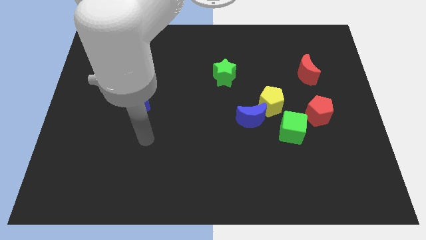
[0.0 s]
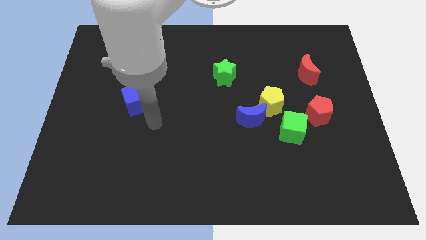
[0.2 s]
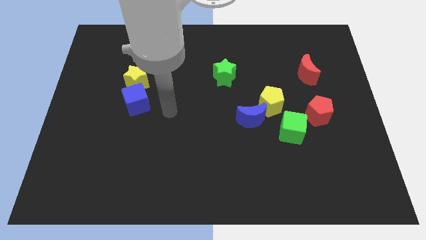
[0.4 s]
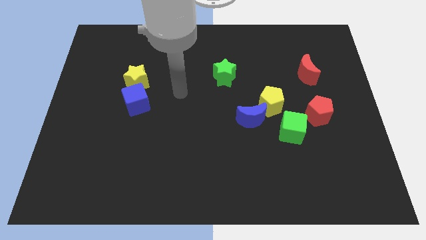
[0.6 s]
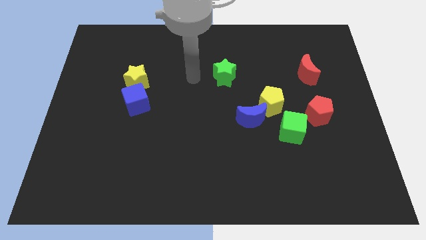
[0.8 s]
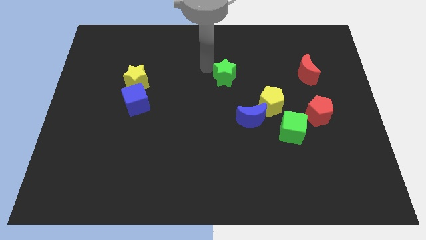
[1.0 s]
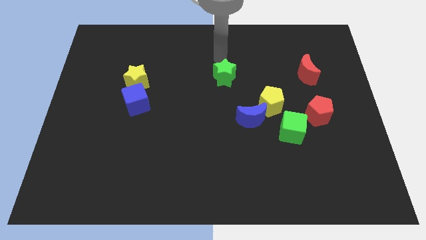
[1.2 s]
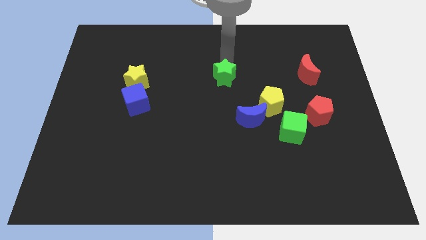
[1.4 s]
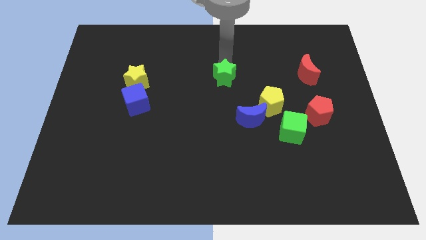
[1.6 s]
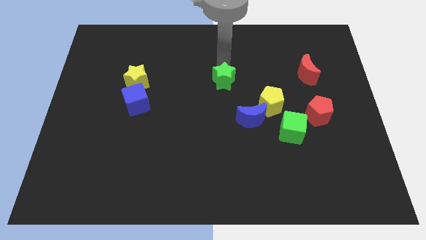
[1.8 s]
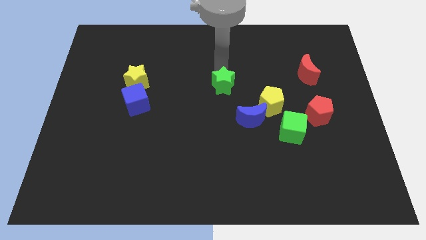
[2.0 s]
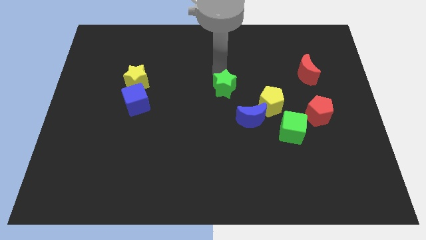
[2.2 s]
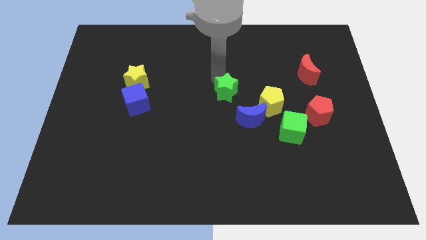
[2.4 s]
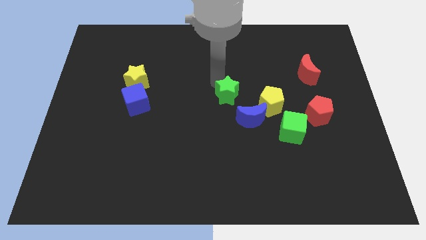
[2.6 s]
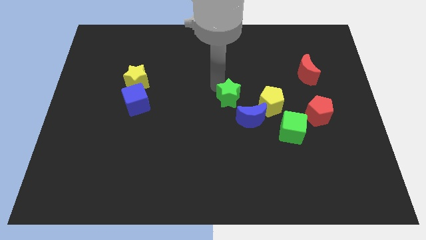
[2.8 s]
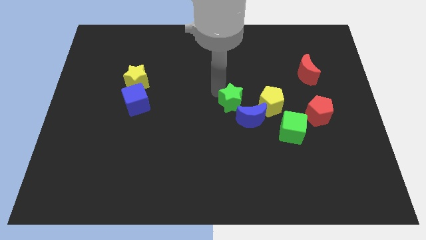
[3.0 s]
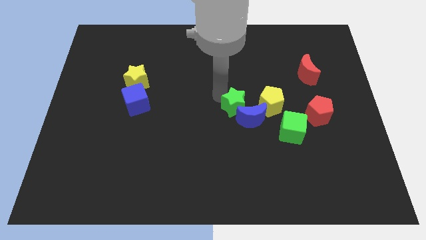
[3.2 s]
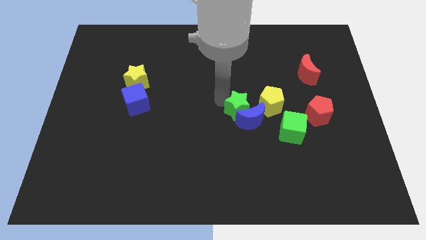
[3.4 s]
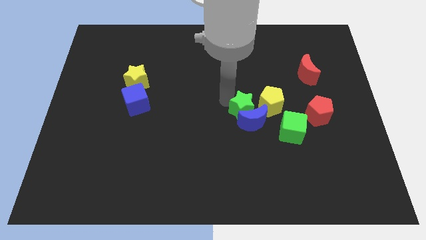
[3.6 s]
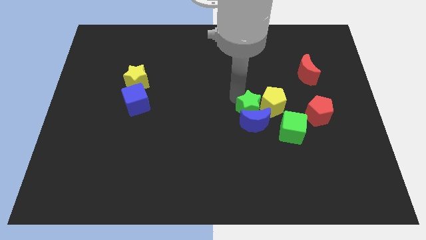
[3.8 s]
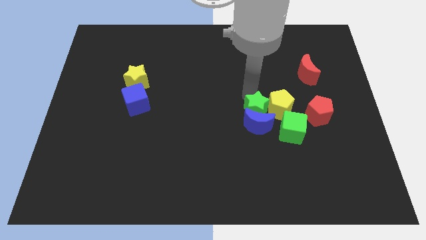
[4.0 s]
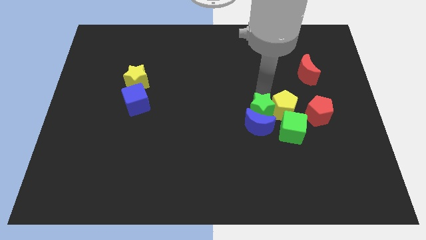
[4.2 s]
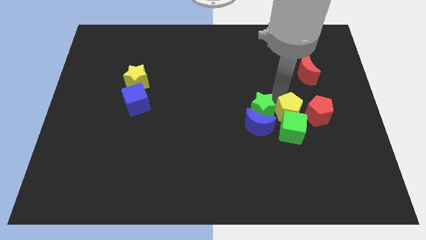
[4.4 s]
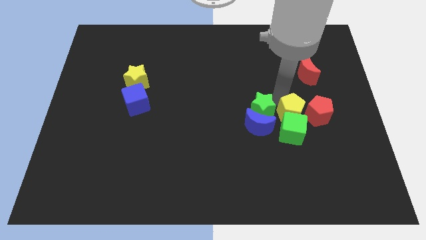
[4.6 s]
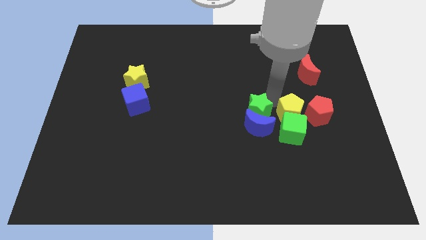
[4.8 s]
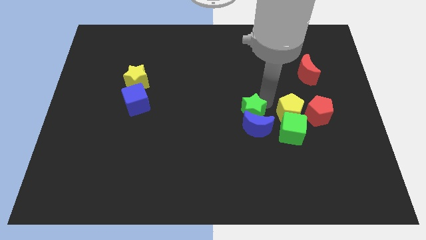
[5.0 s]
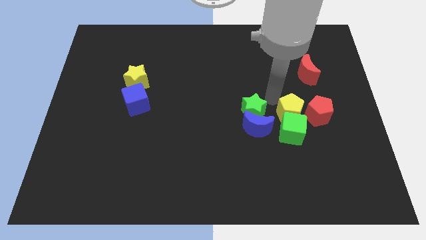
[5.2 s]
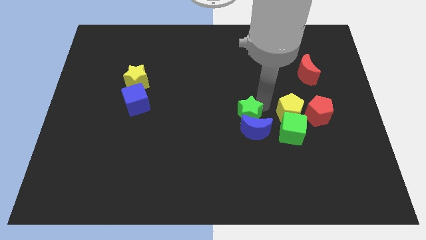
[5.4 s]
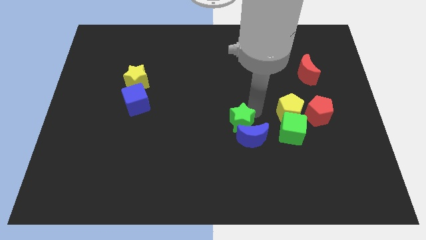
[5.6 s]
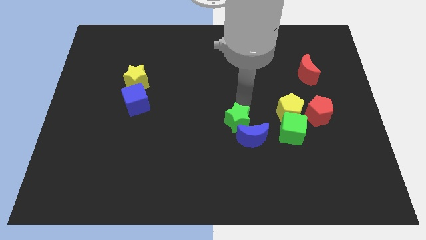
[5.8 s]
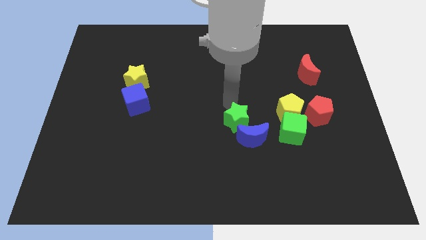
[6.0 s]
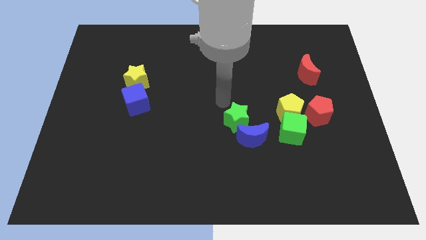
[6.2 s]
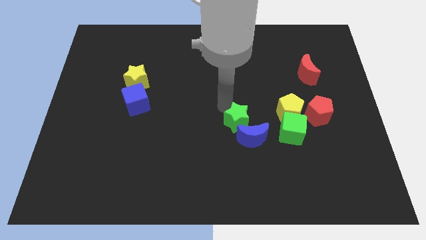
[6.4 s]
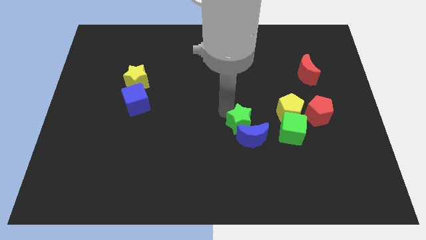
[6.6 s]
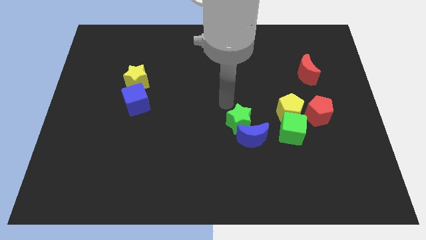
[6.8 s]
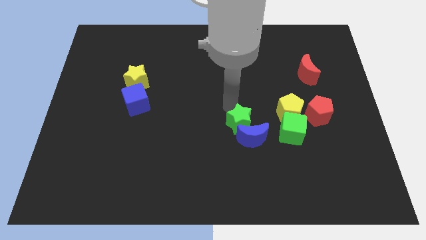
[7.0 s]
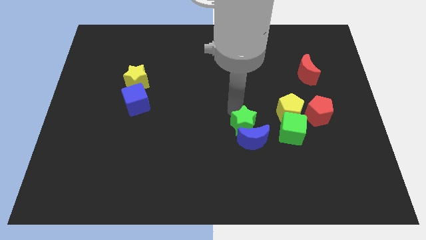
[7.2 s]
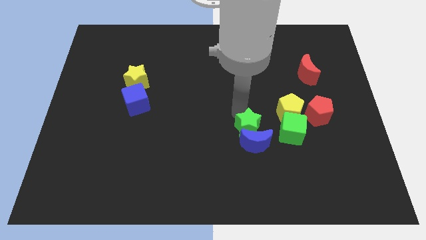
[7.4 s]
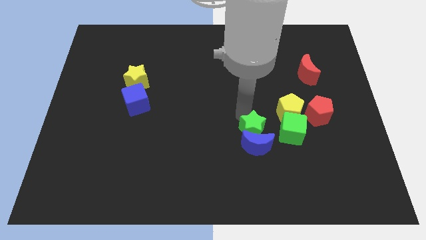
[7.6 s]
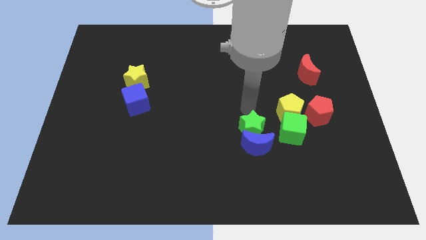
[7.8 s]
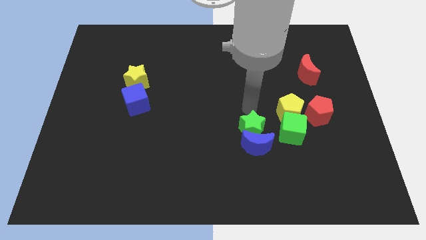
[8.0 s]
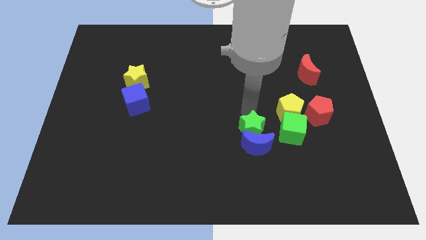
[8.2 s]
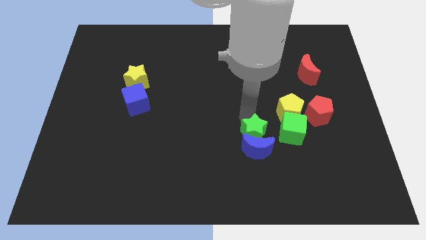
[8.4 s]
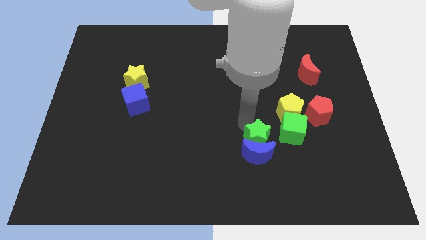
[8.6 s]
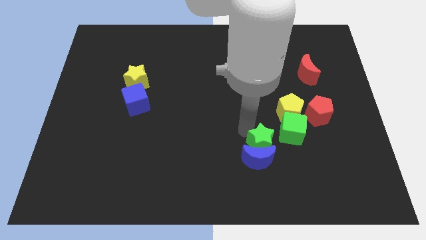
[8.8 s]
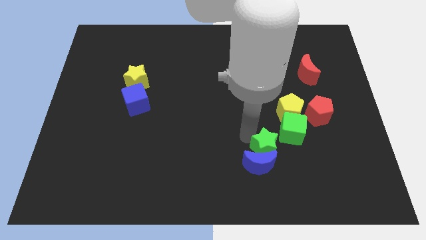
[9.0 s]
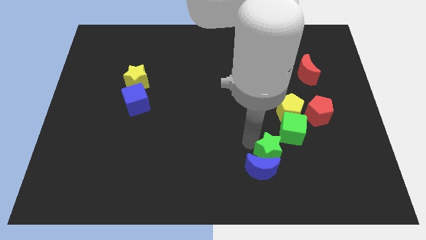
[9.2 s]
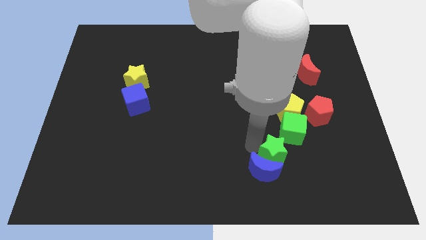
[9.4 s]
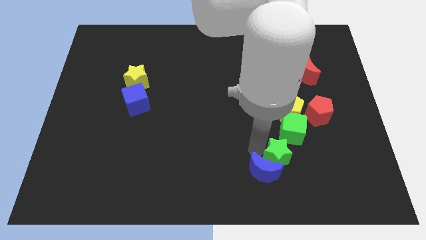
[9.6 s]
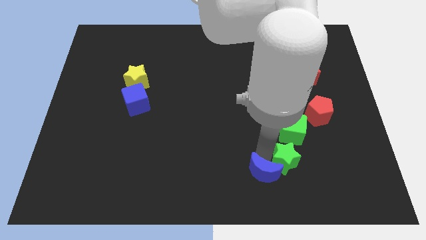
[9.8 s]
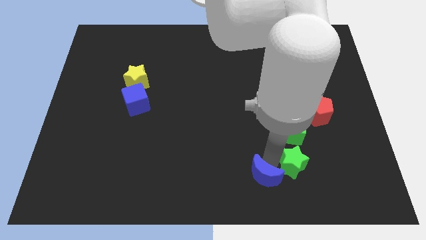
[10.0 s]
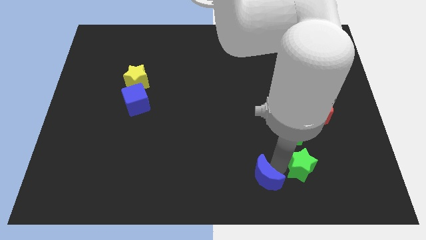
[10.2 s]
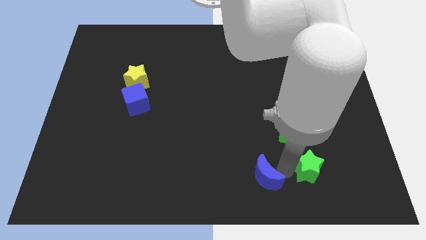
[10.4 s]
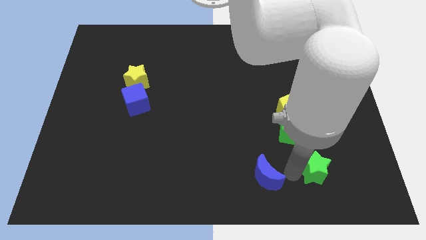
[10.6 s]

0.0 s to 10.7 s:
slide the green star to the bottom of the red pentagon

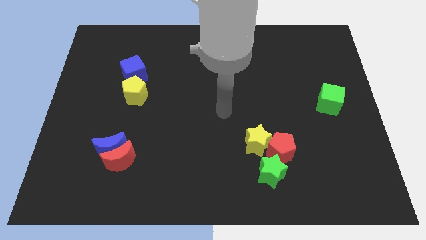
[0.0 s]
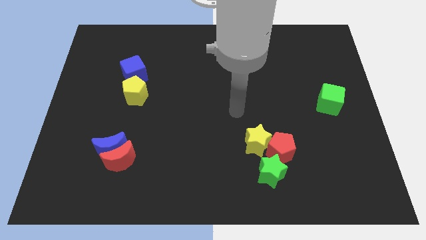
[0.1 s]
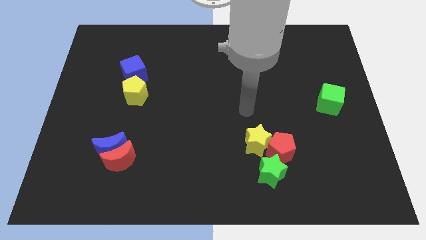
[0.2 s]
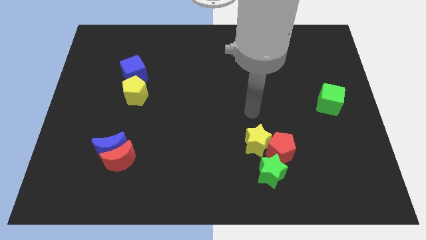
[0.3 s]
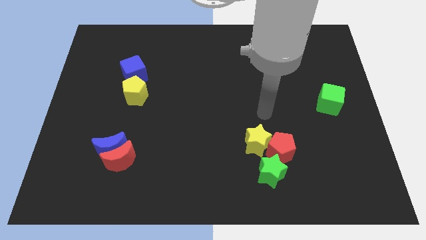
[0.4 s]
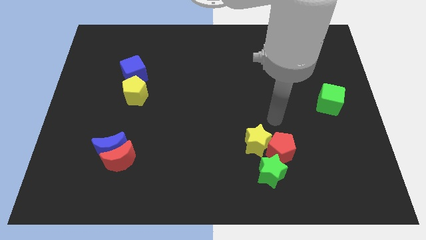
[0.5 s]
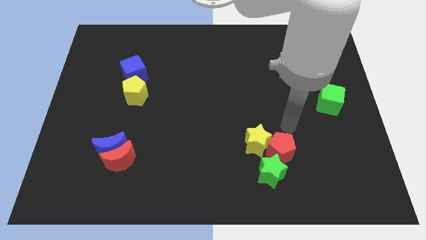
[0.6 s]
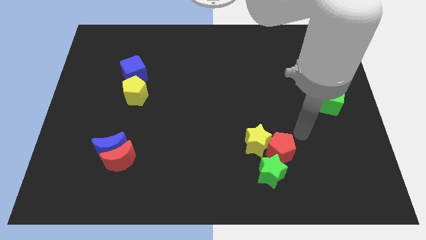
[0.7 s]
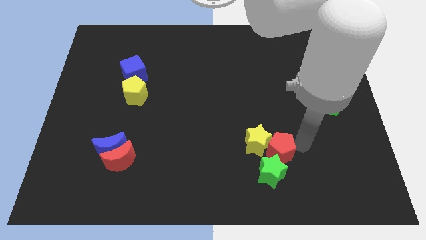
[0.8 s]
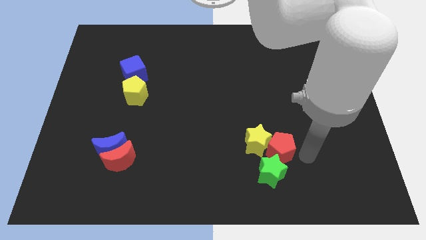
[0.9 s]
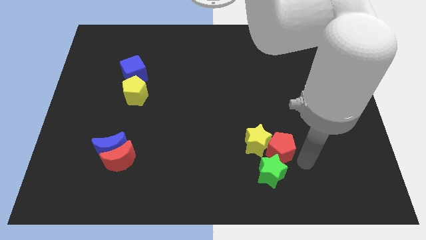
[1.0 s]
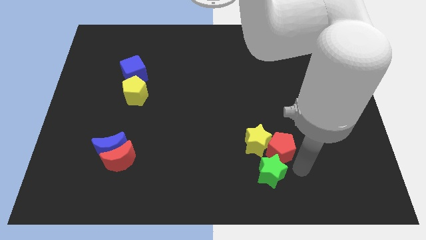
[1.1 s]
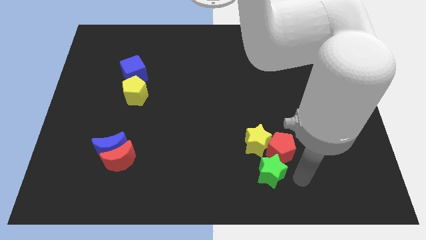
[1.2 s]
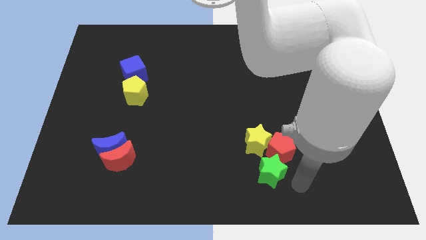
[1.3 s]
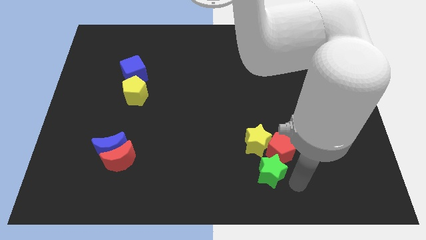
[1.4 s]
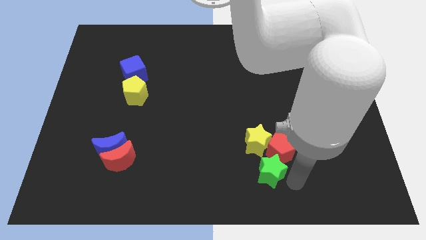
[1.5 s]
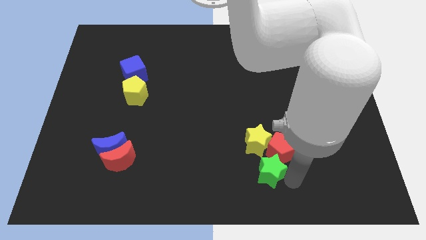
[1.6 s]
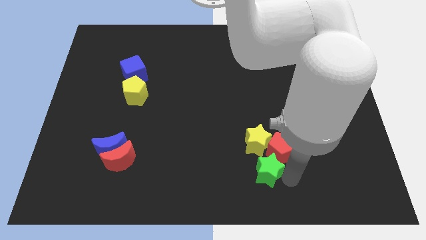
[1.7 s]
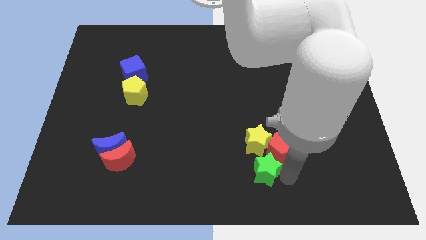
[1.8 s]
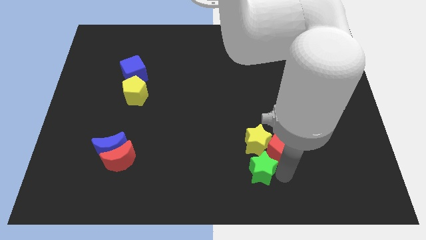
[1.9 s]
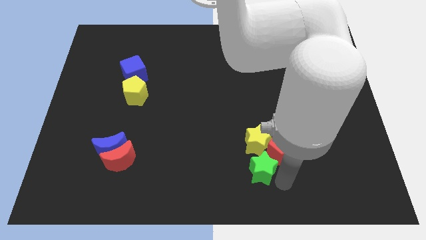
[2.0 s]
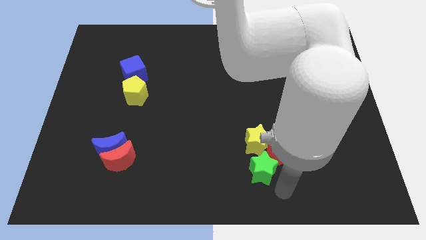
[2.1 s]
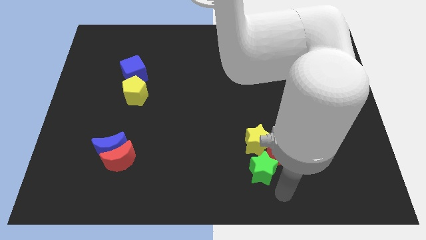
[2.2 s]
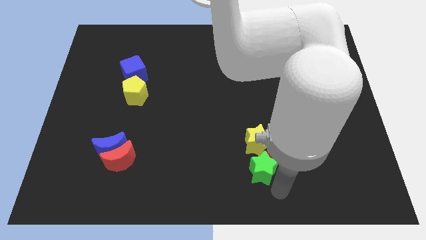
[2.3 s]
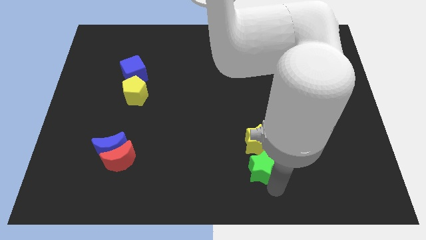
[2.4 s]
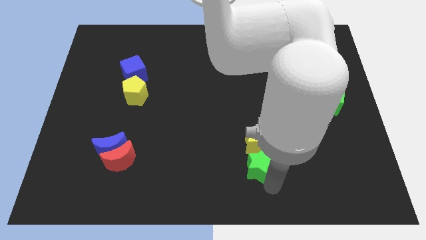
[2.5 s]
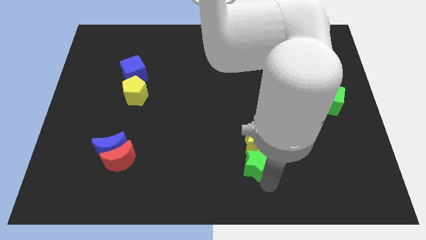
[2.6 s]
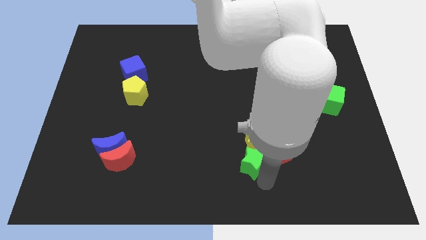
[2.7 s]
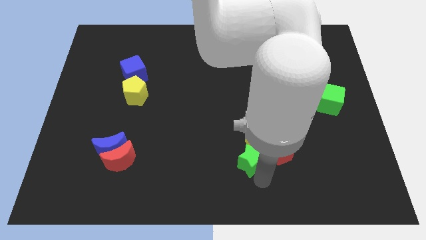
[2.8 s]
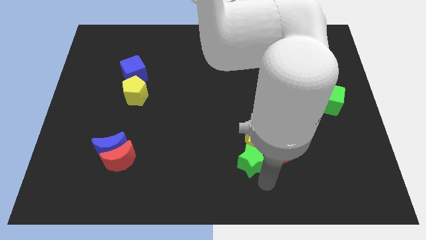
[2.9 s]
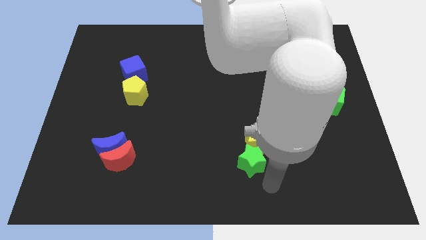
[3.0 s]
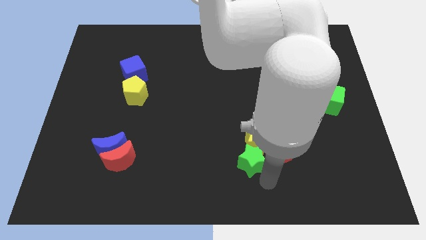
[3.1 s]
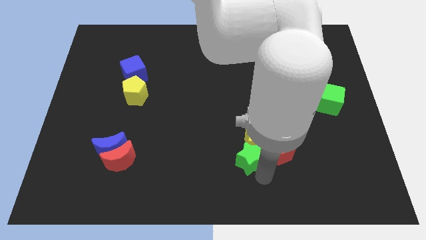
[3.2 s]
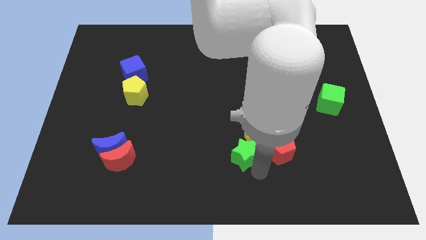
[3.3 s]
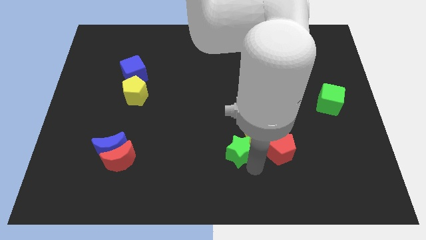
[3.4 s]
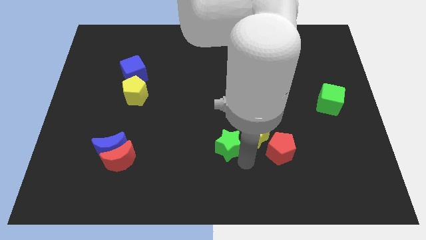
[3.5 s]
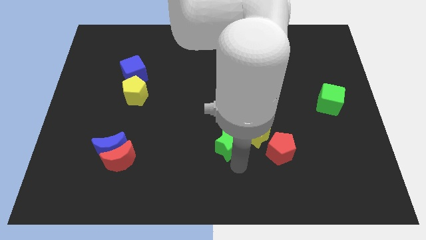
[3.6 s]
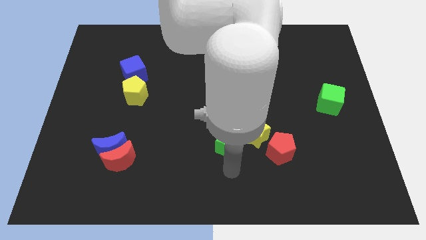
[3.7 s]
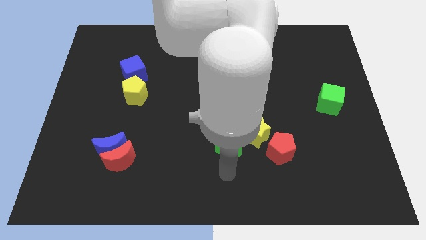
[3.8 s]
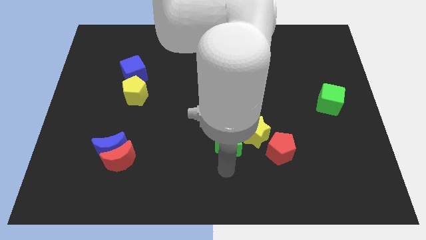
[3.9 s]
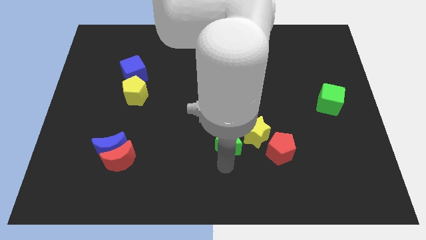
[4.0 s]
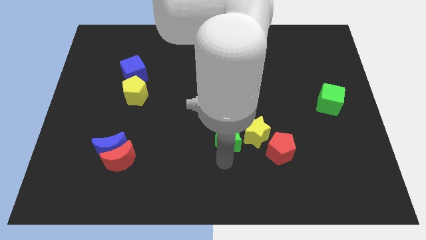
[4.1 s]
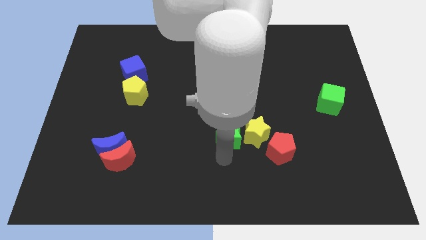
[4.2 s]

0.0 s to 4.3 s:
push the green star diagonally up and to the left of the yellow star
